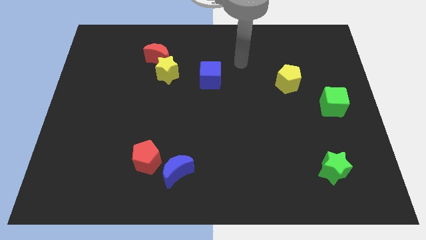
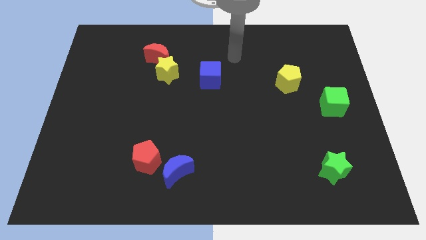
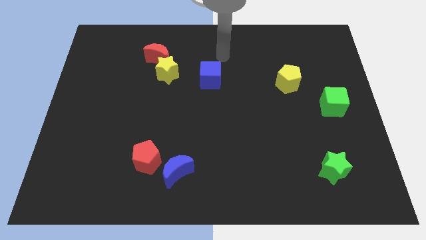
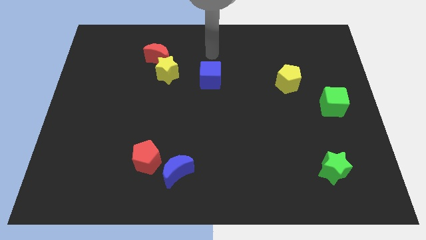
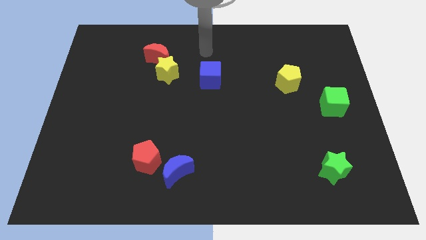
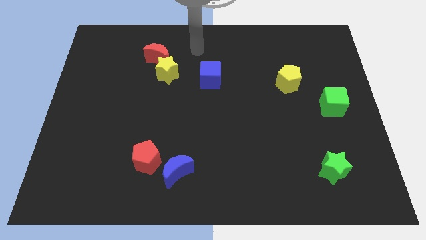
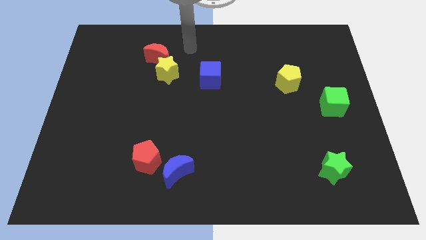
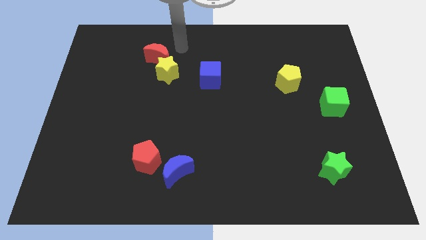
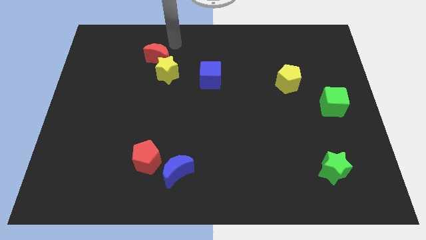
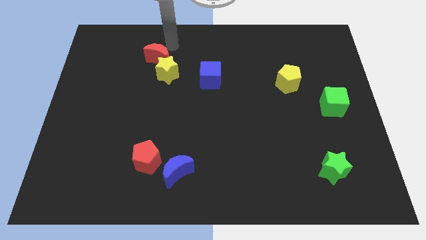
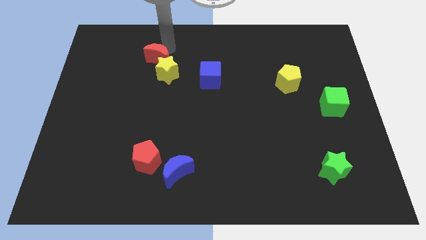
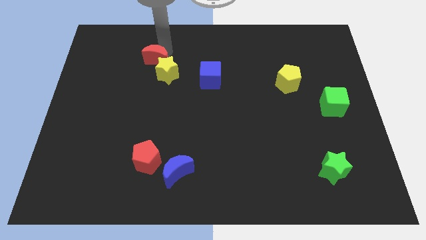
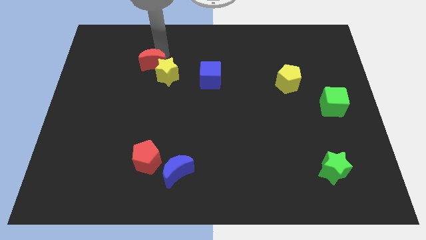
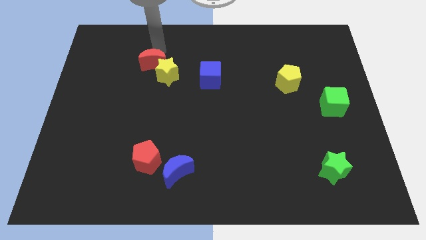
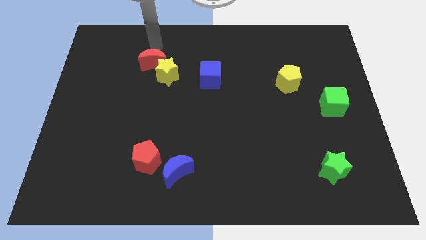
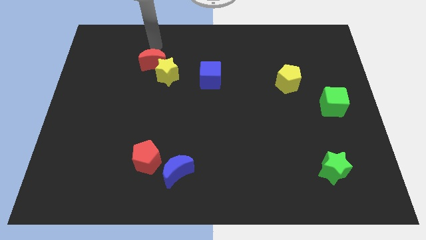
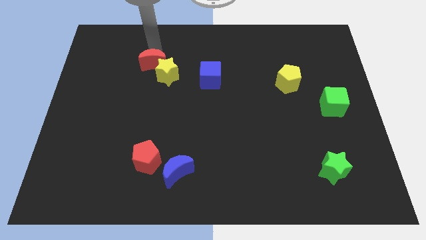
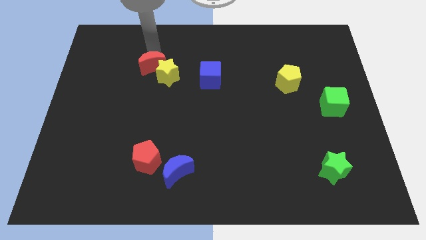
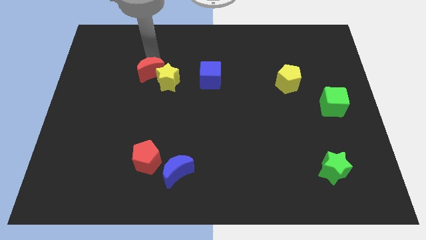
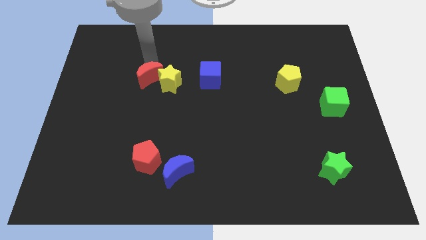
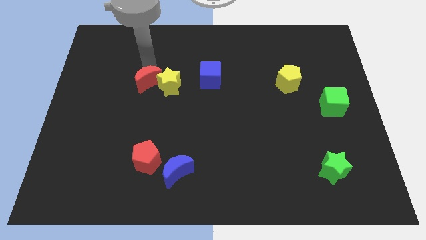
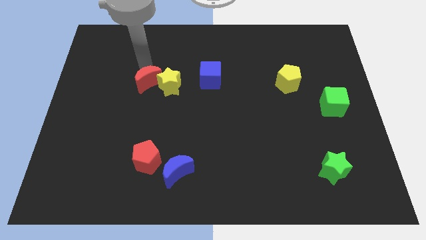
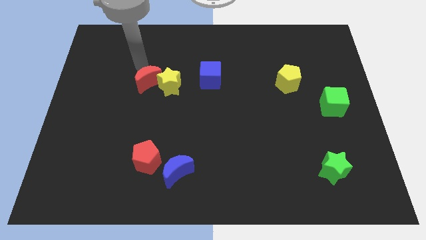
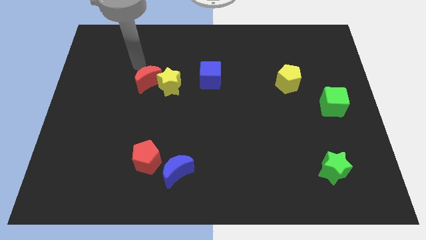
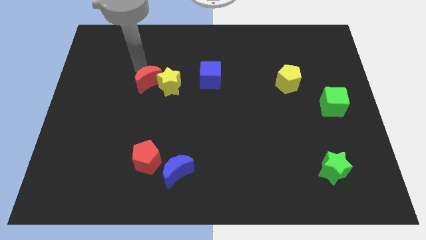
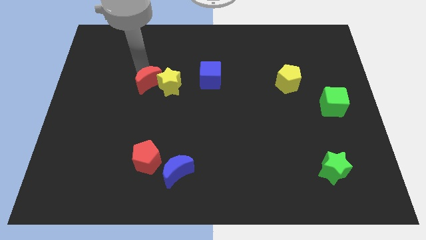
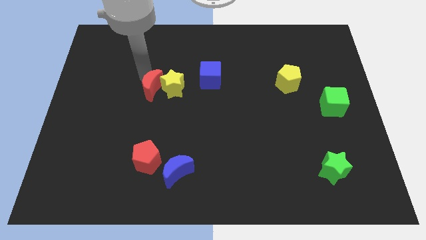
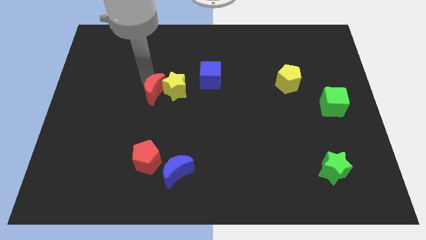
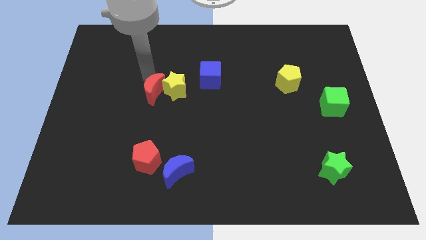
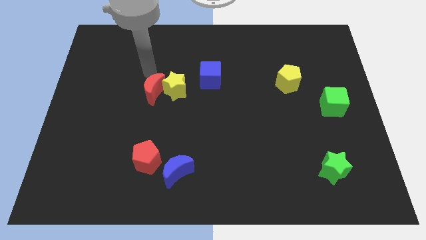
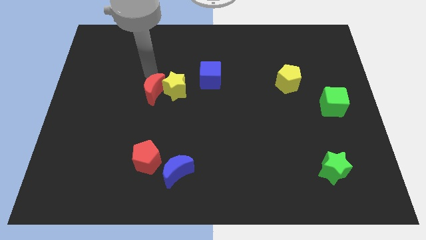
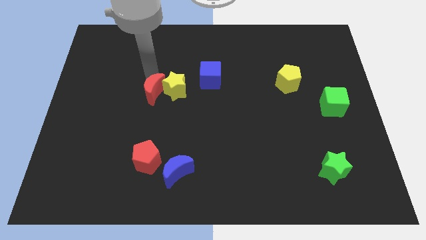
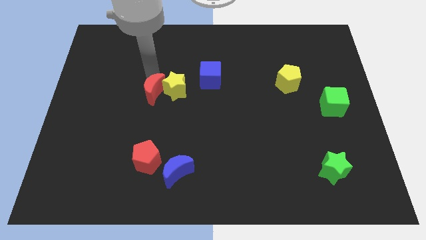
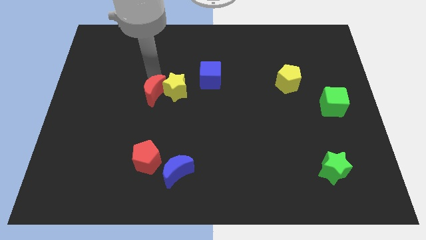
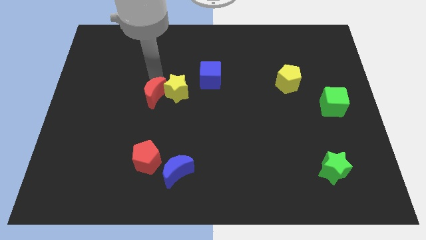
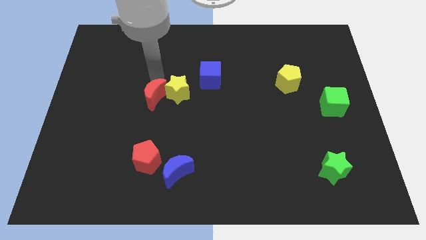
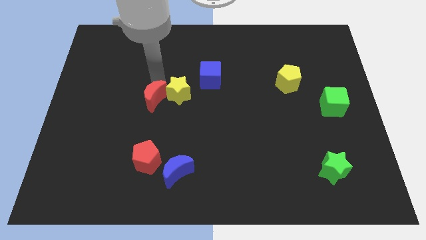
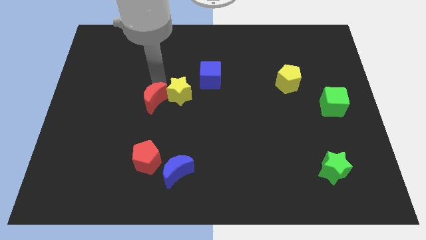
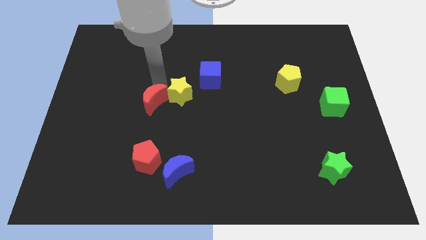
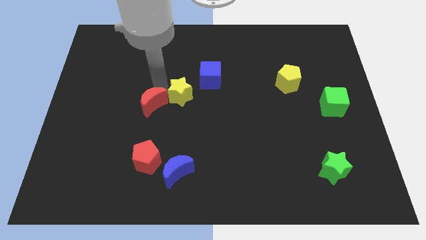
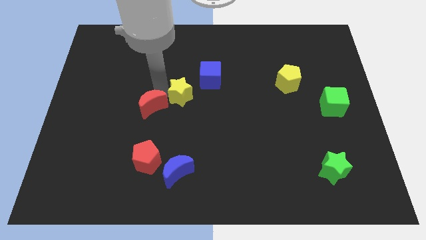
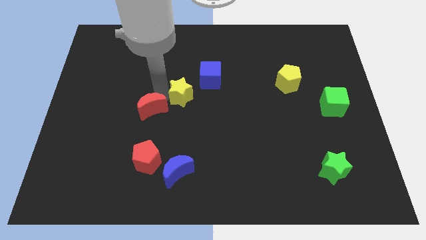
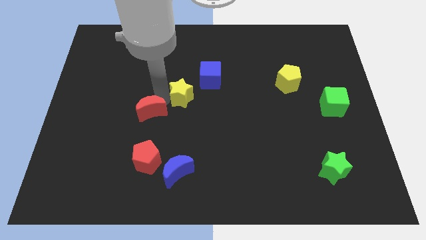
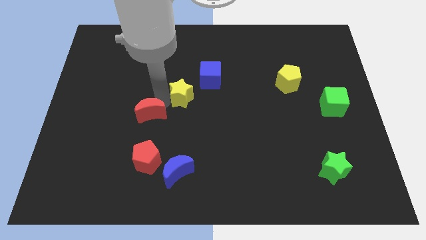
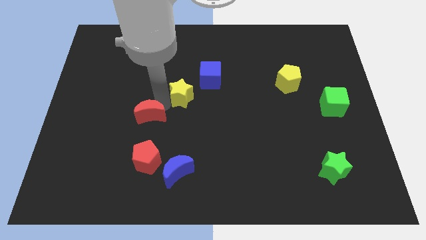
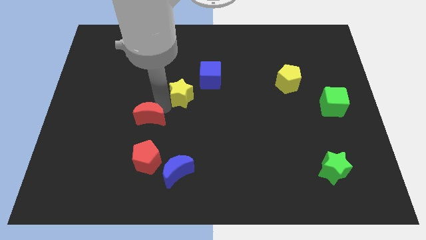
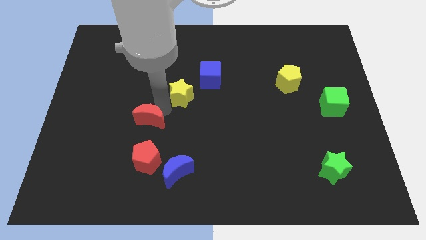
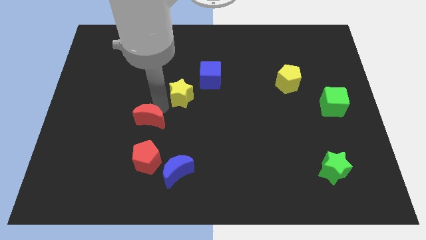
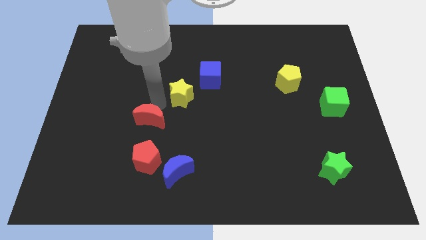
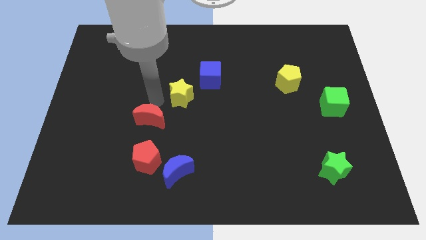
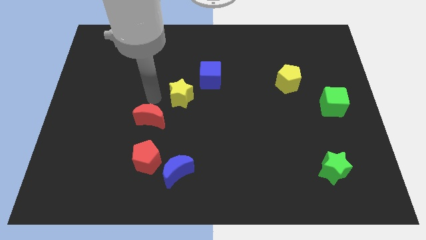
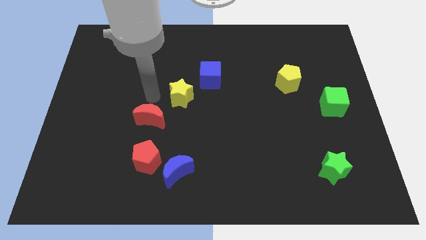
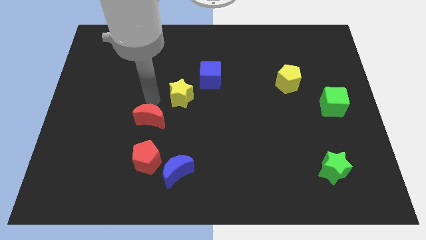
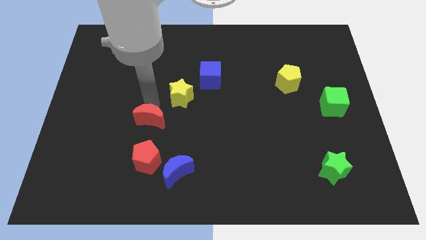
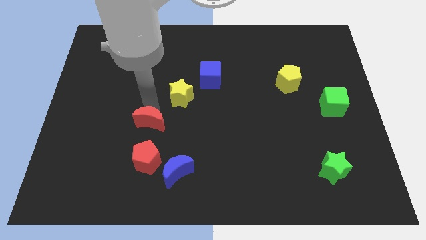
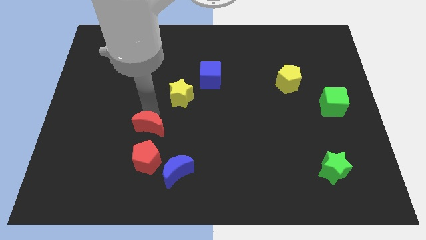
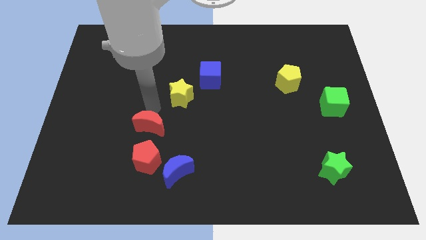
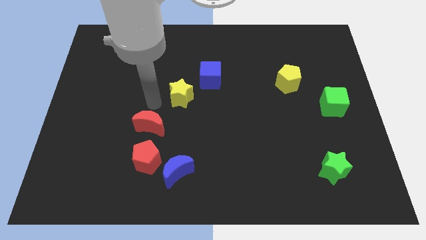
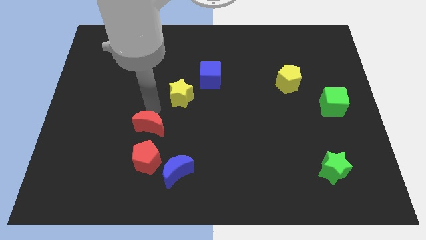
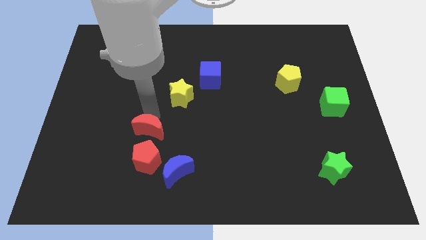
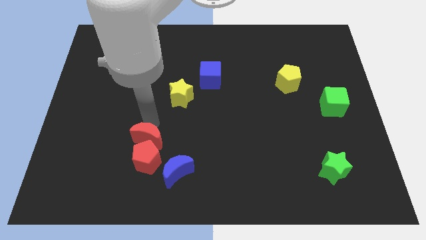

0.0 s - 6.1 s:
move the red moon close to the red pentagon

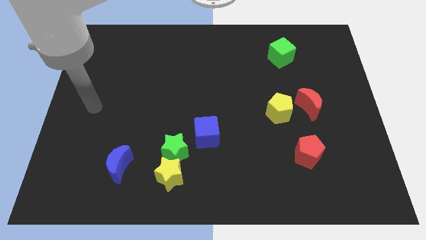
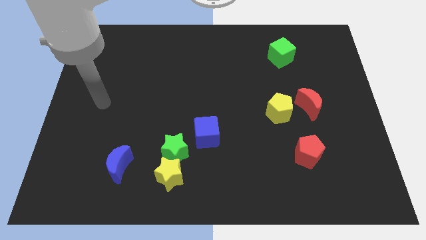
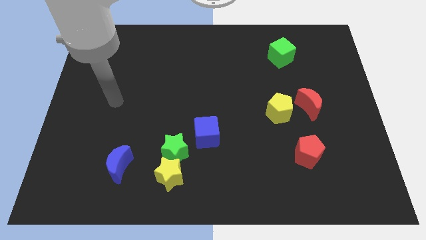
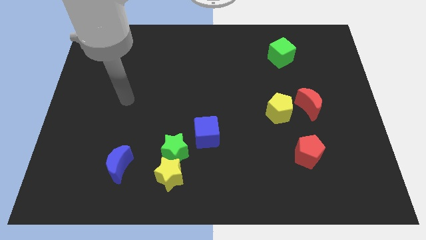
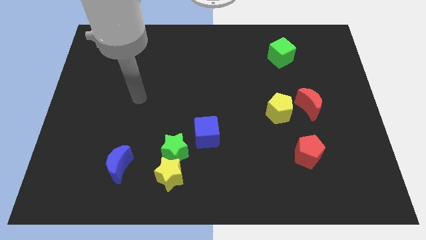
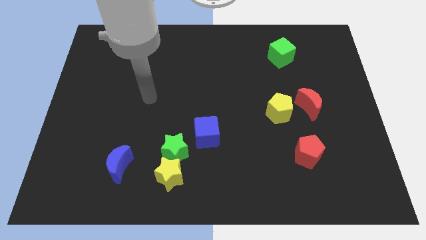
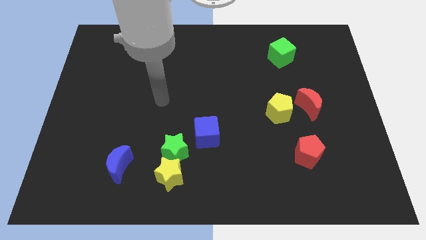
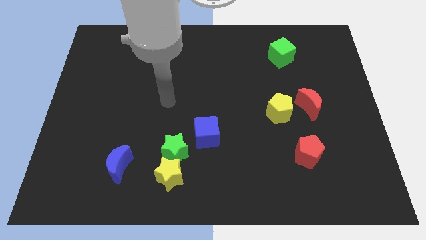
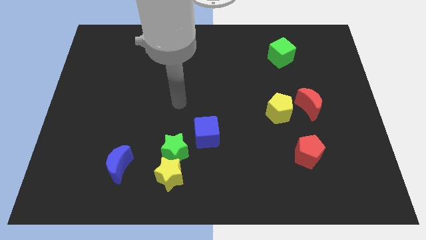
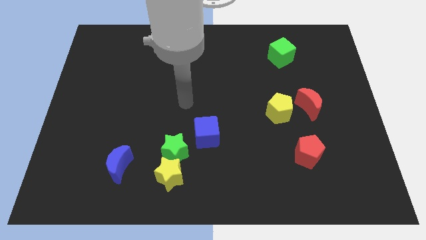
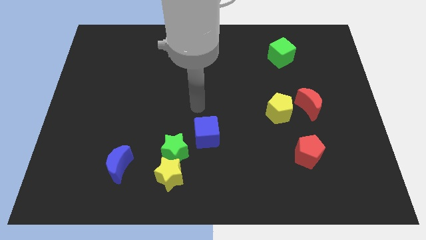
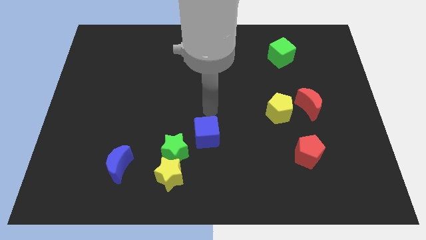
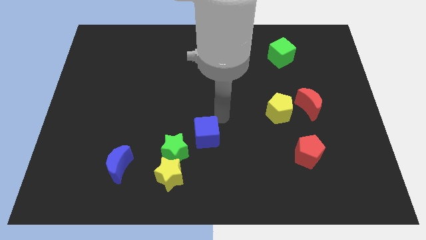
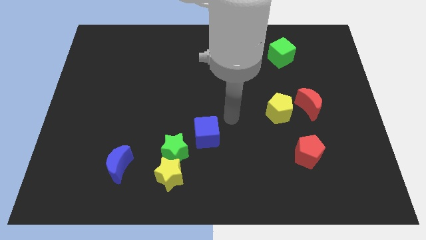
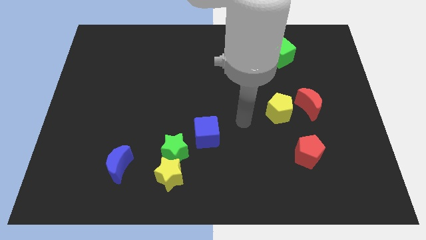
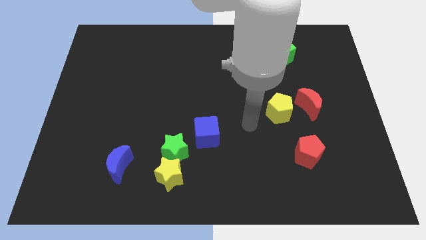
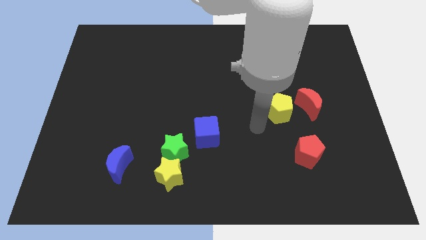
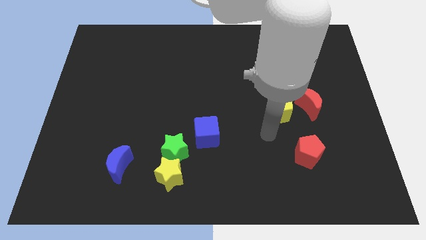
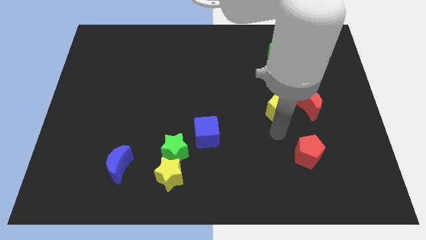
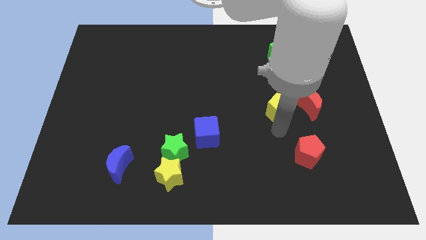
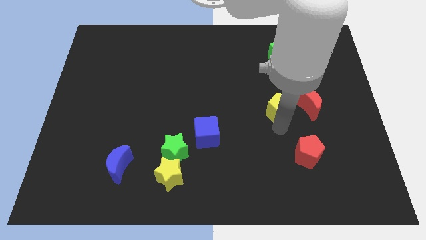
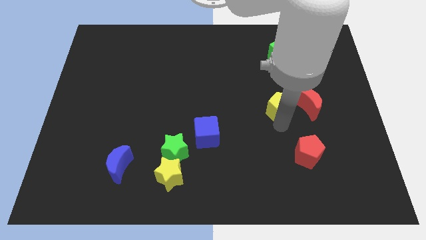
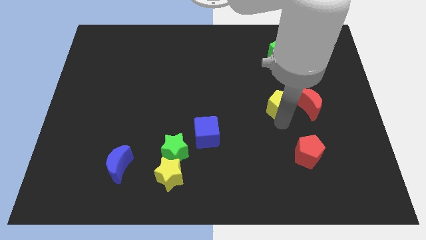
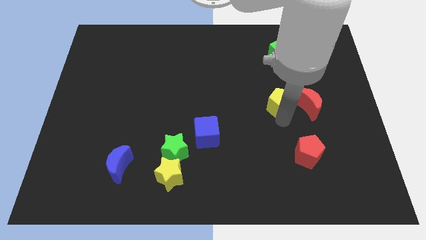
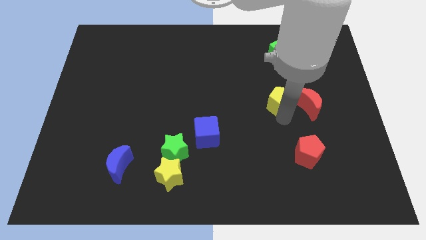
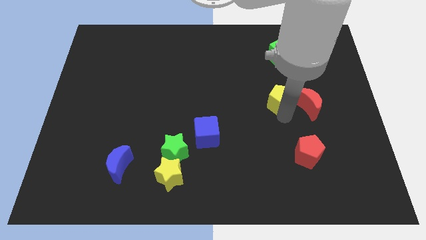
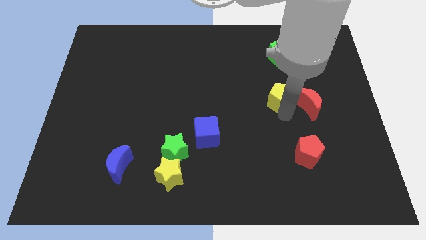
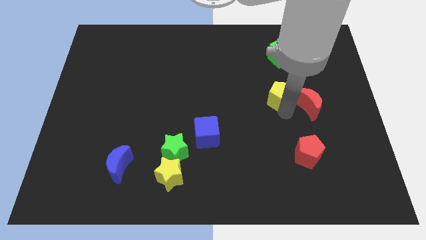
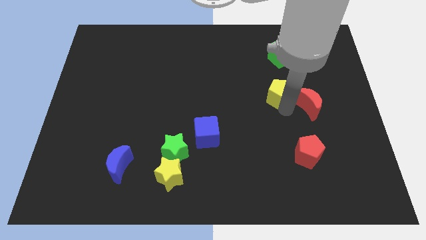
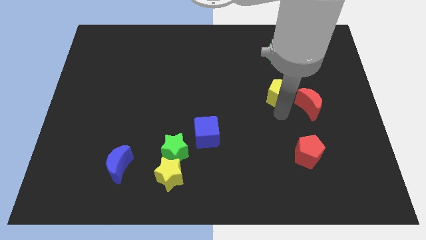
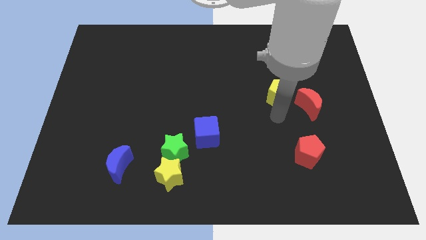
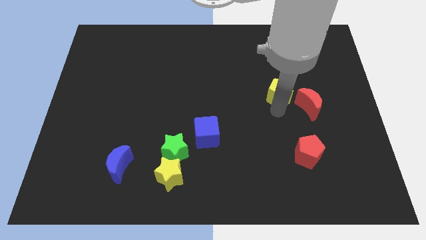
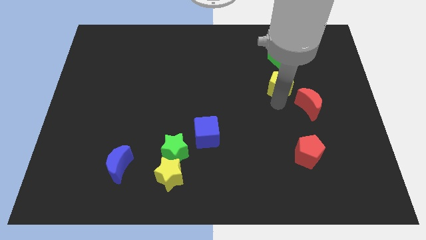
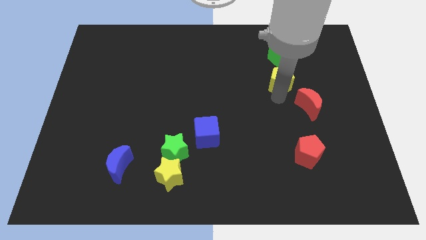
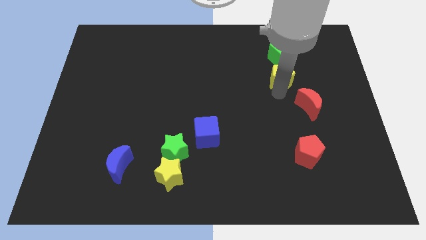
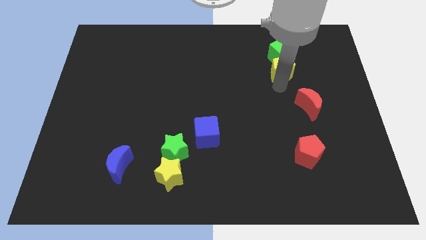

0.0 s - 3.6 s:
slide the yellow pentagon towards the green cube
